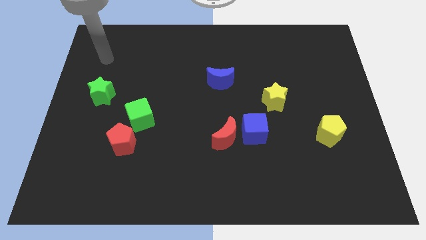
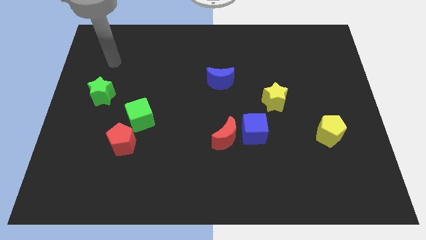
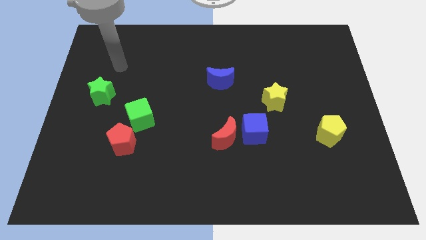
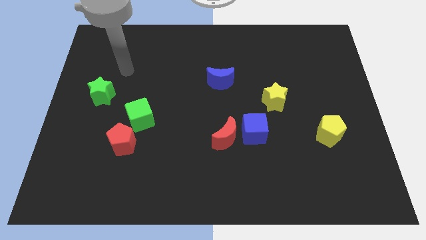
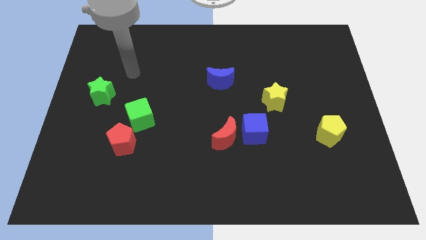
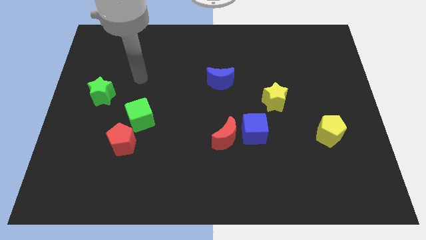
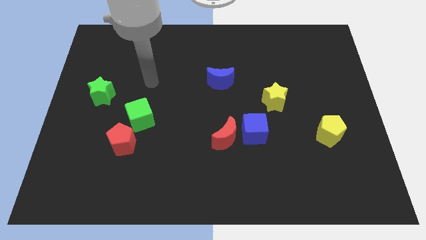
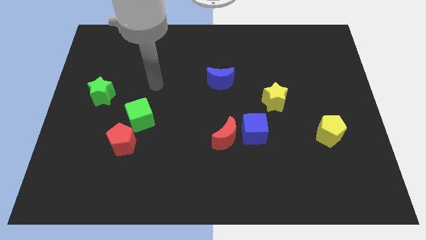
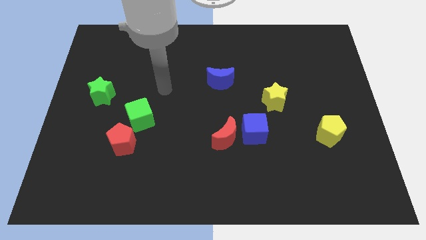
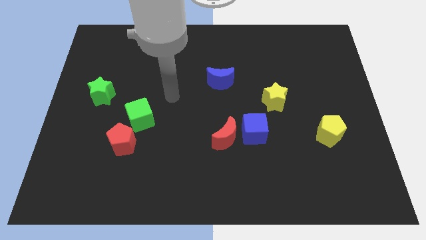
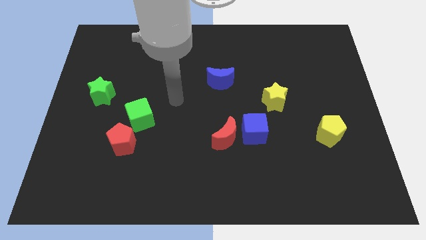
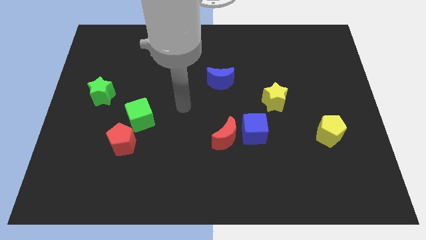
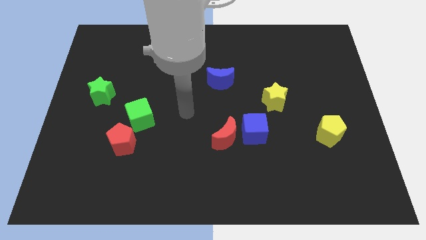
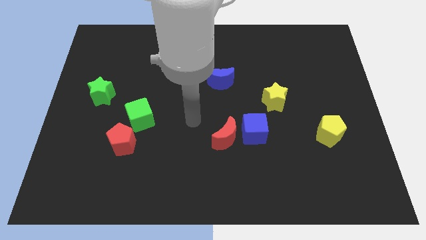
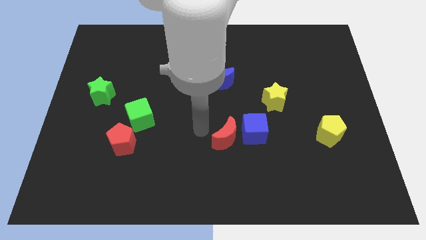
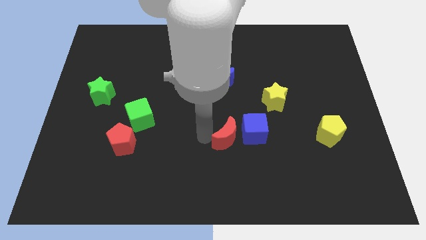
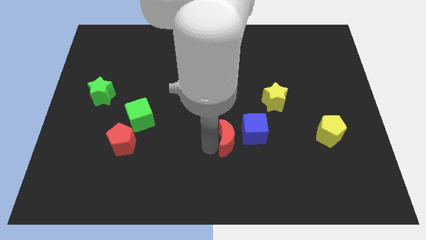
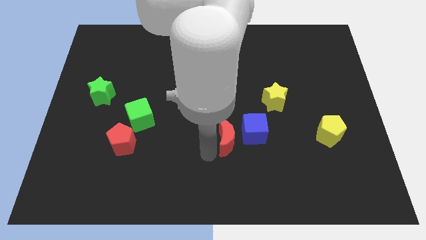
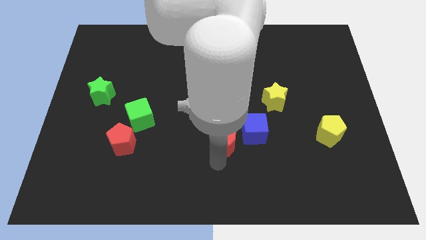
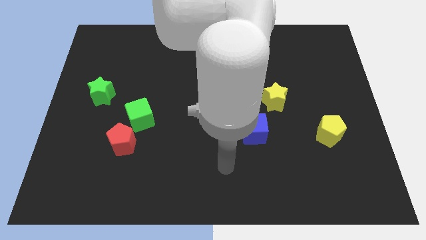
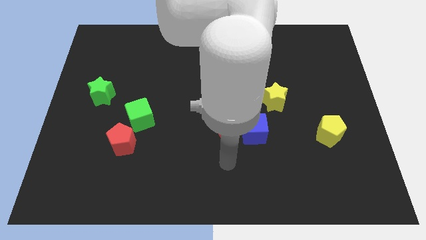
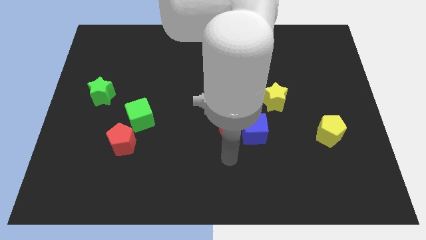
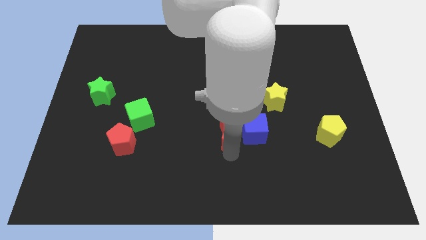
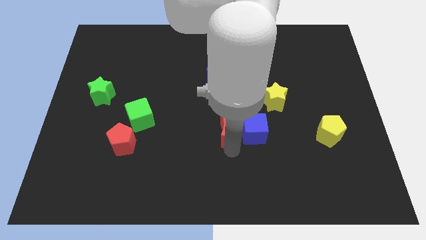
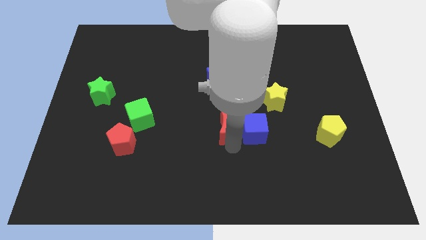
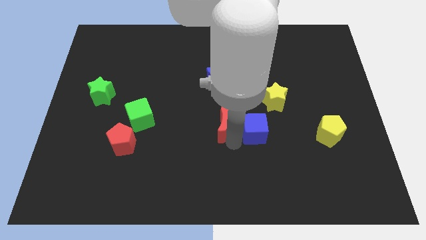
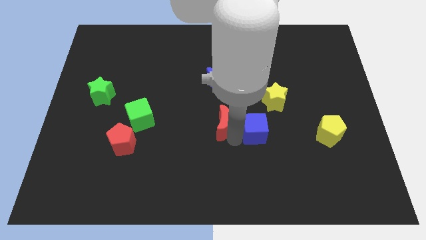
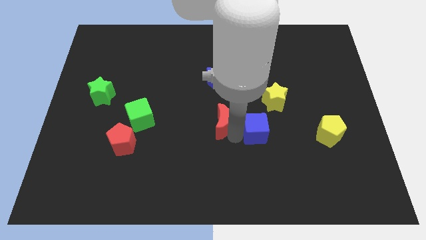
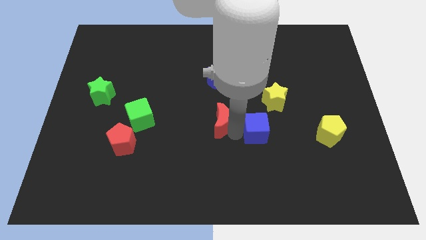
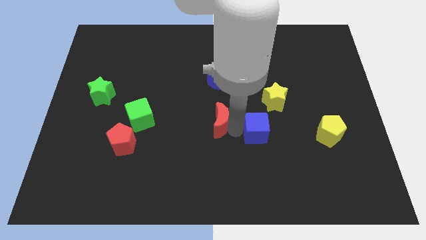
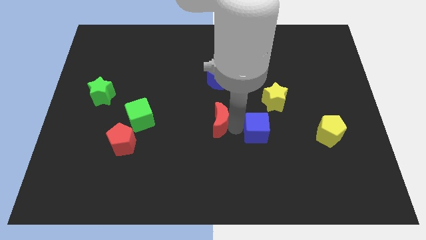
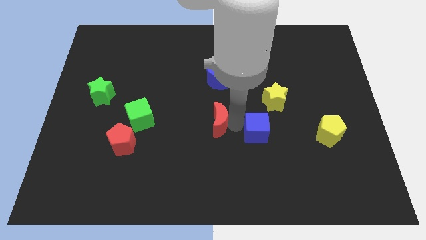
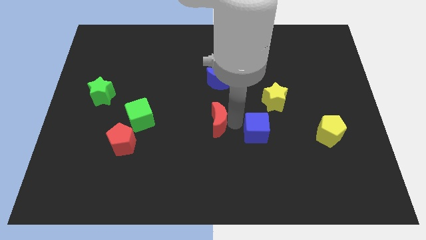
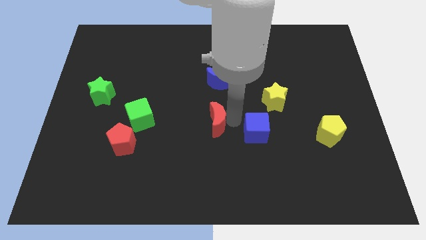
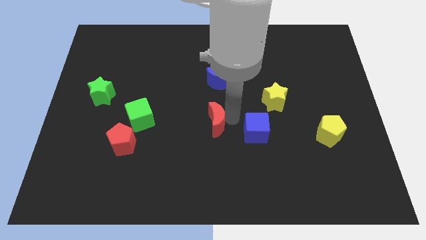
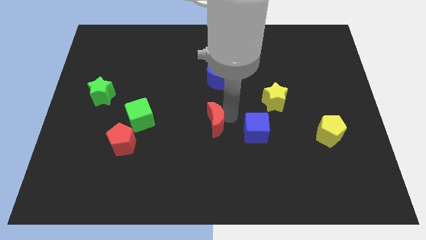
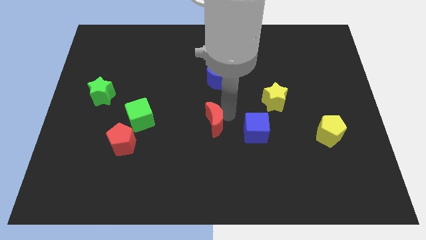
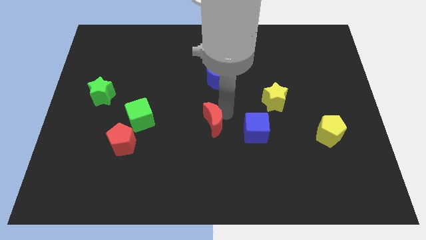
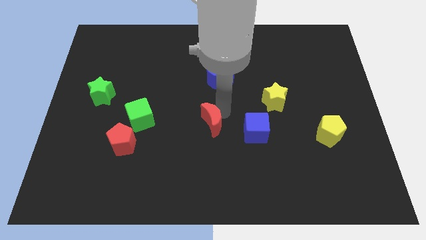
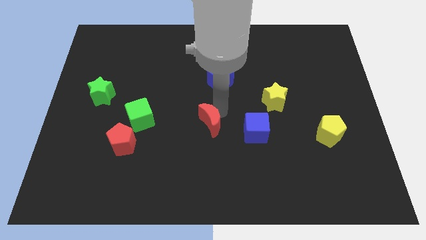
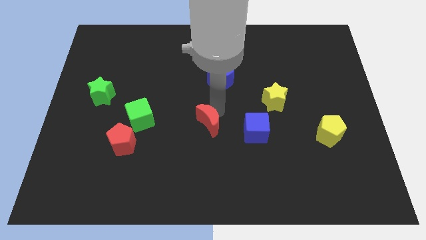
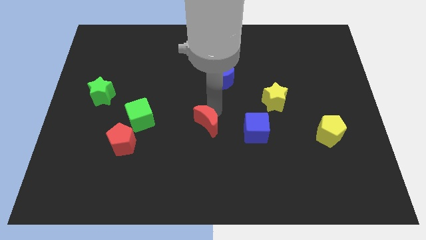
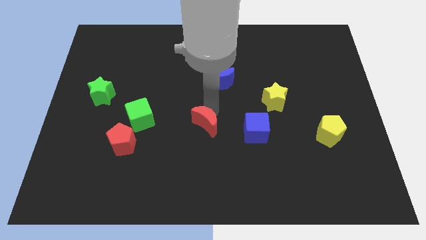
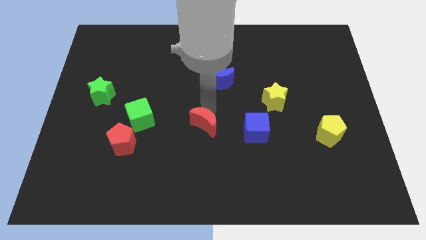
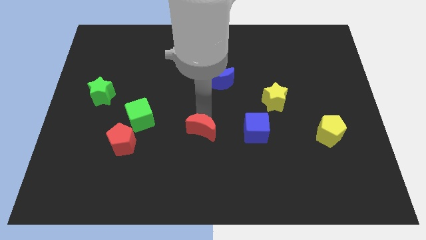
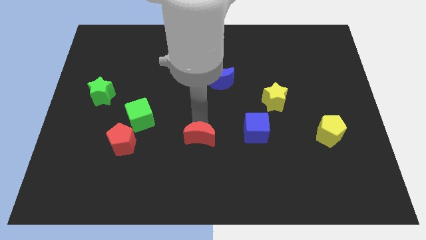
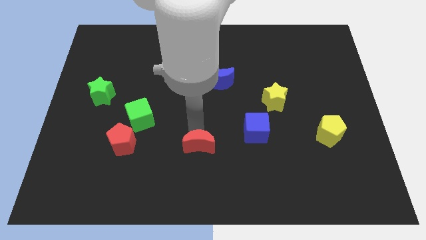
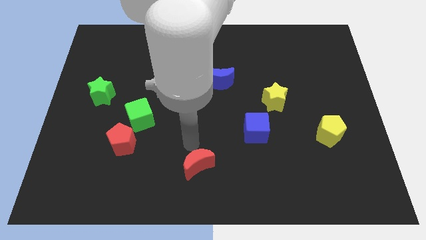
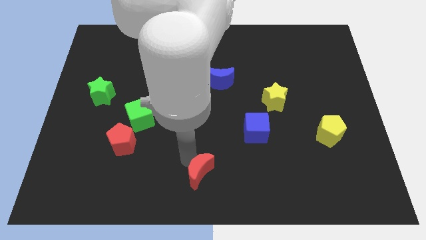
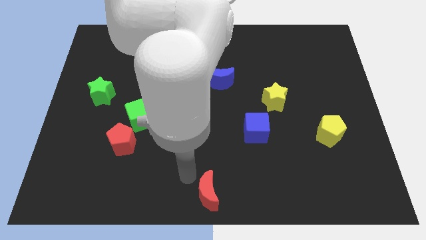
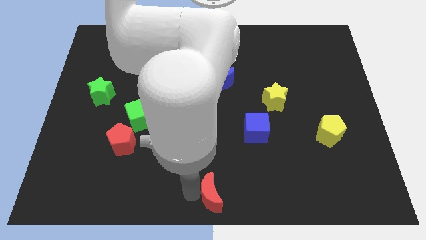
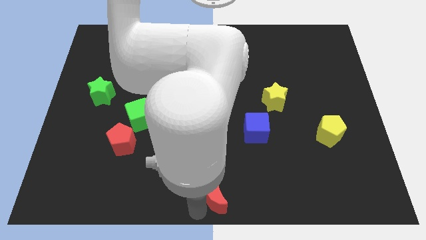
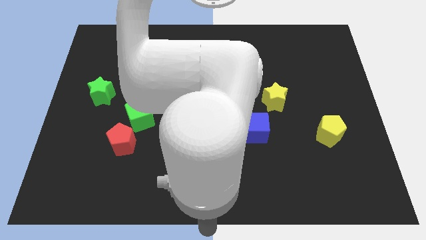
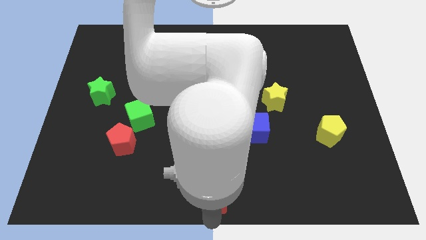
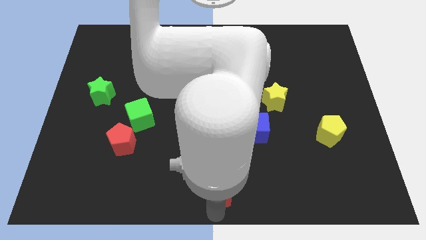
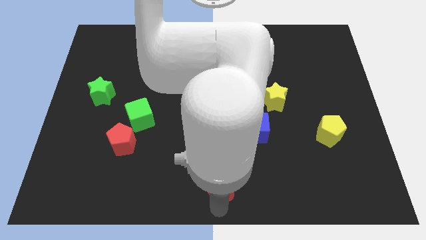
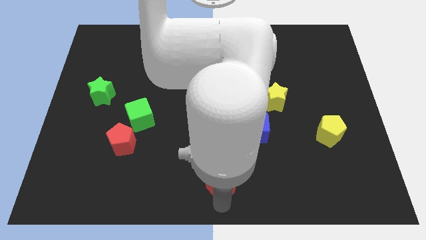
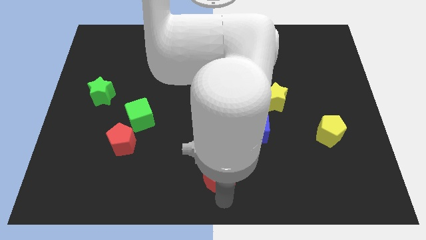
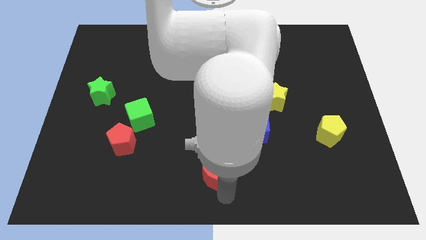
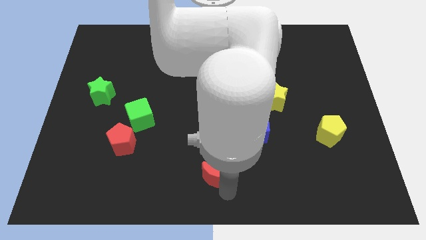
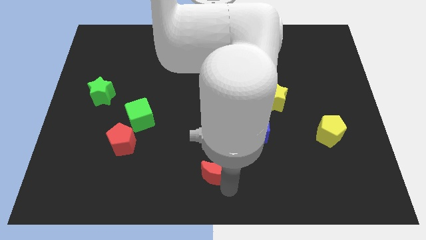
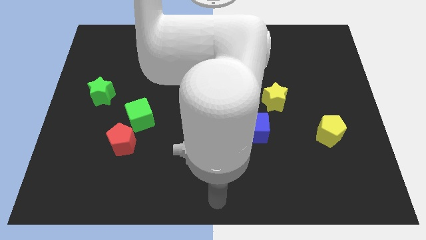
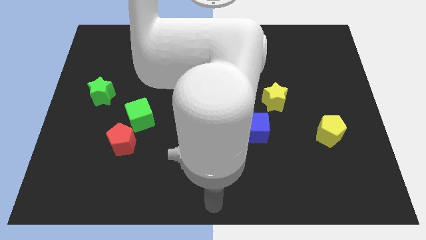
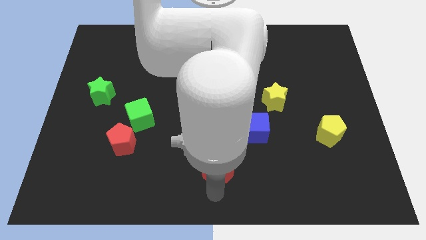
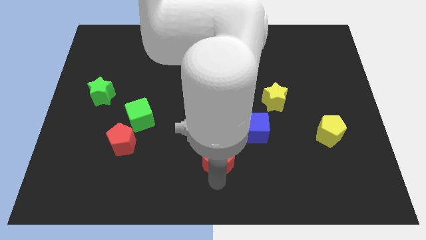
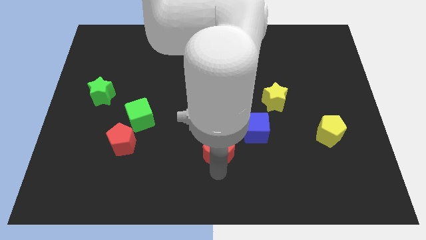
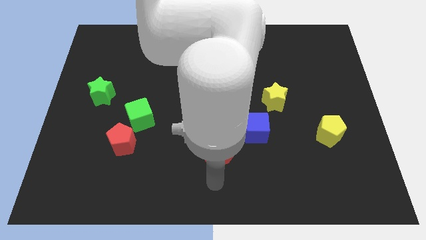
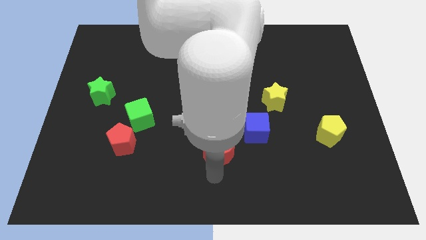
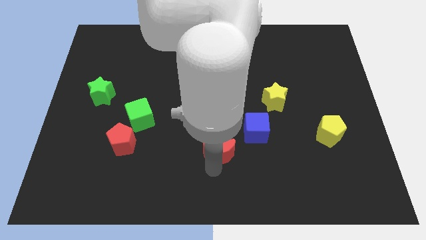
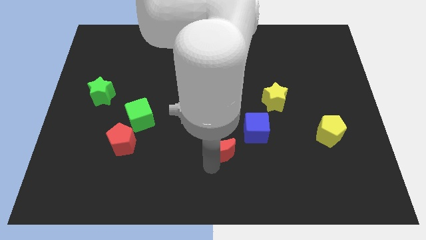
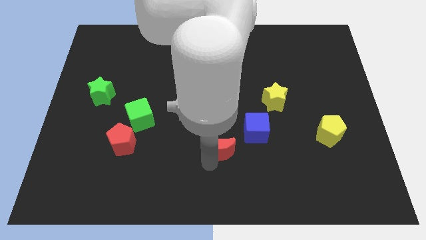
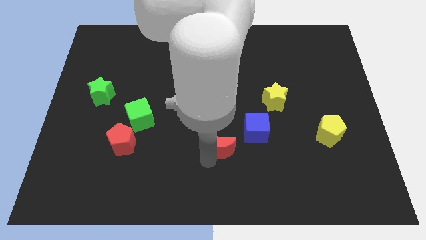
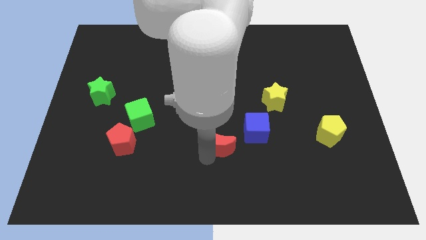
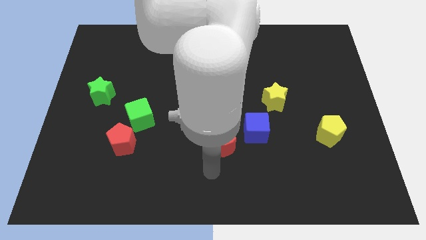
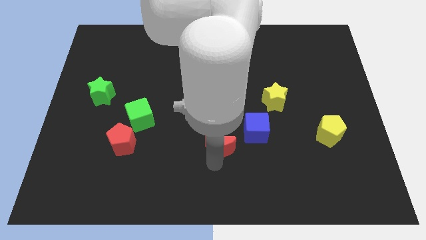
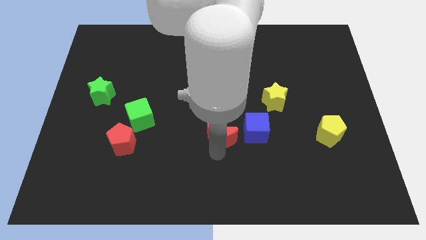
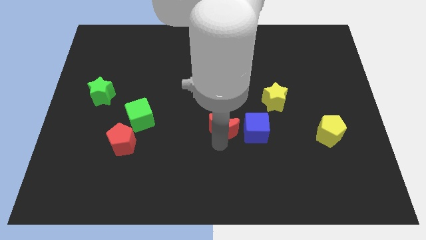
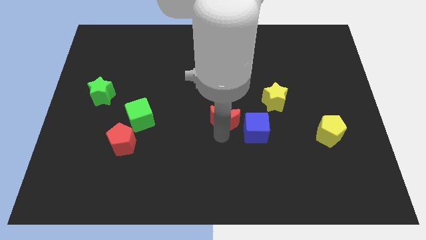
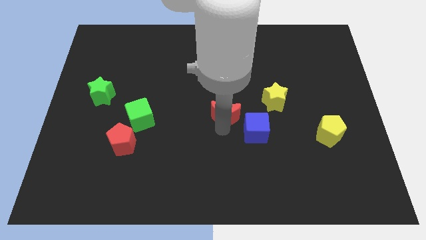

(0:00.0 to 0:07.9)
put the red moon left of the yellow star
